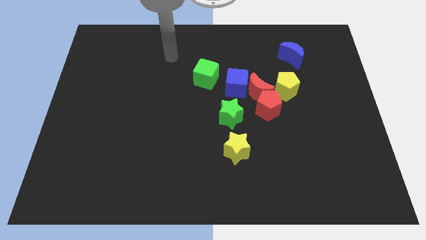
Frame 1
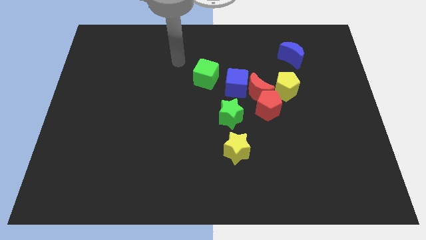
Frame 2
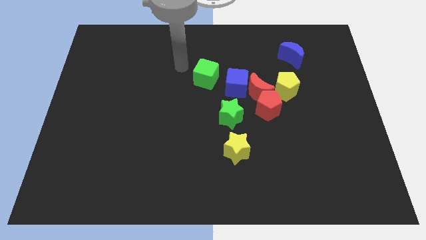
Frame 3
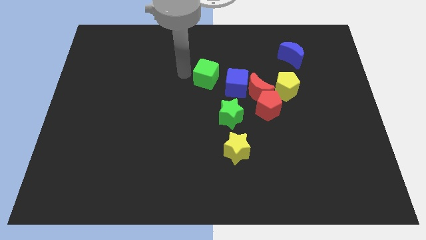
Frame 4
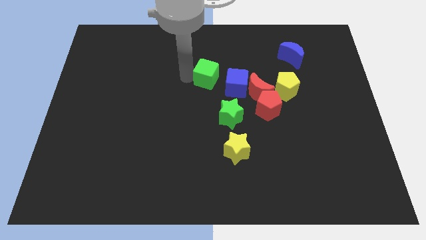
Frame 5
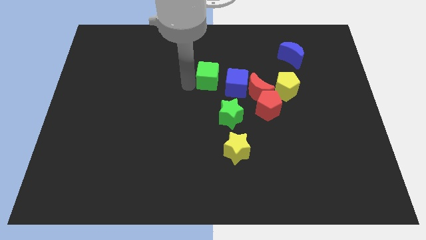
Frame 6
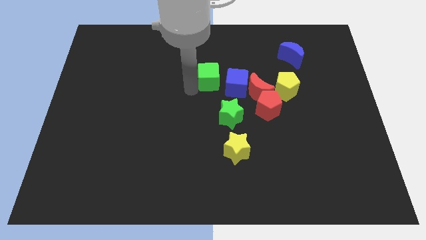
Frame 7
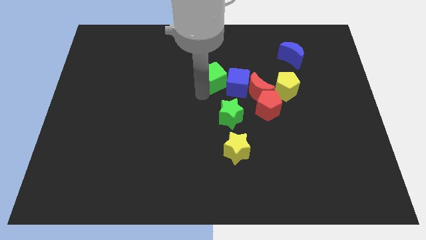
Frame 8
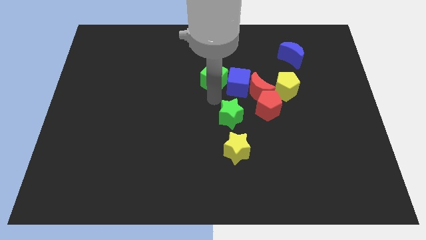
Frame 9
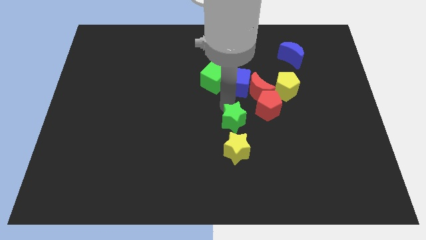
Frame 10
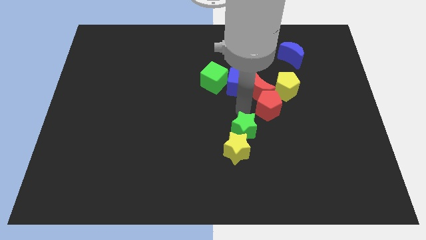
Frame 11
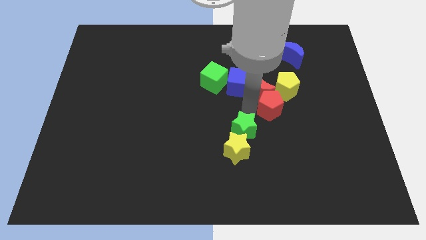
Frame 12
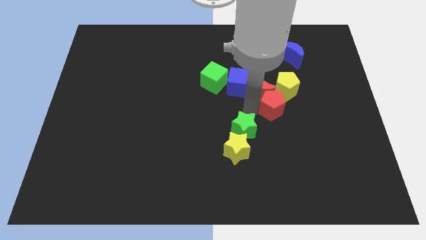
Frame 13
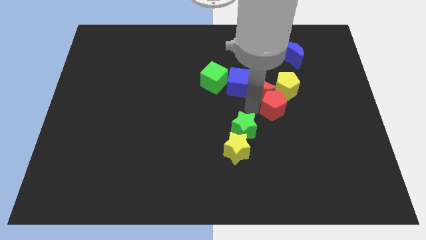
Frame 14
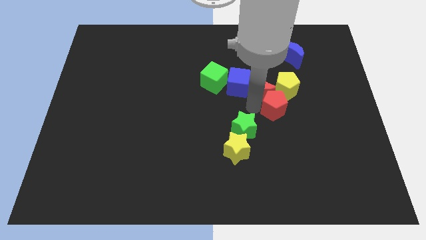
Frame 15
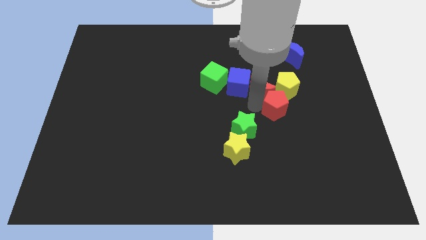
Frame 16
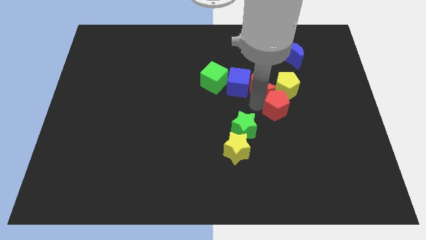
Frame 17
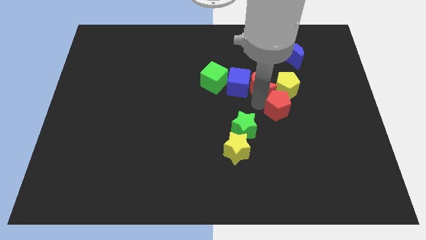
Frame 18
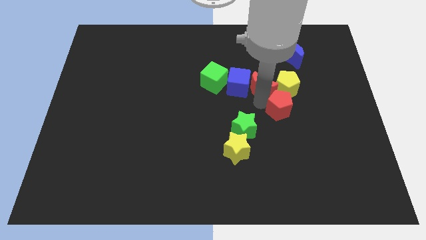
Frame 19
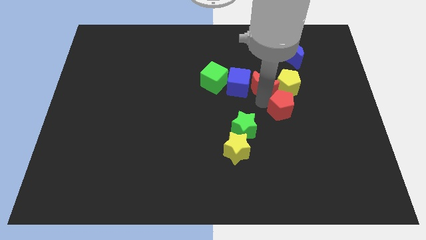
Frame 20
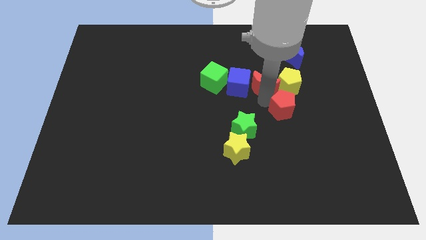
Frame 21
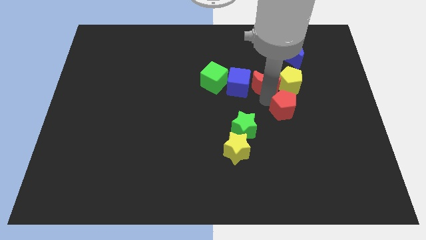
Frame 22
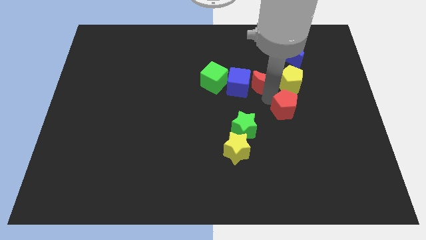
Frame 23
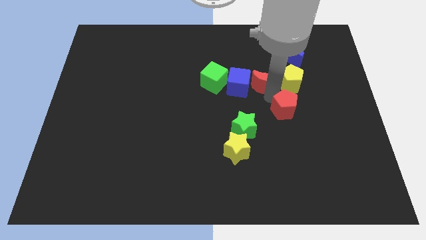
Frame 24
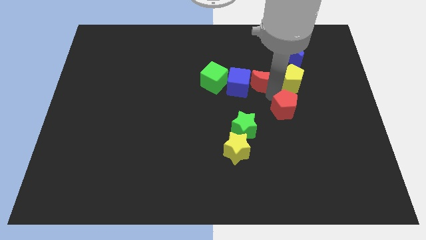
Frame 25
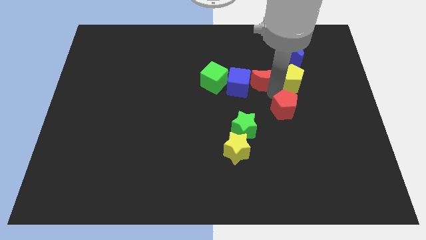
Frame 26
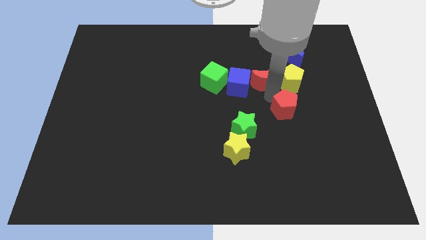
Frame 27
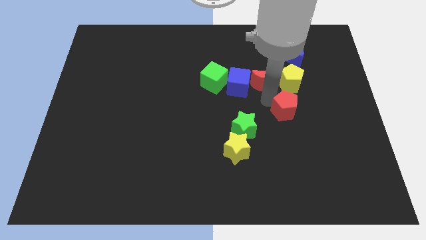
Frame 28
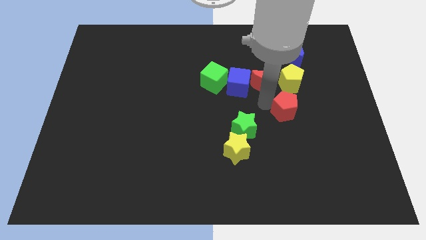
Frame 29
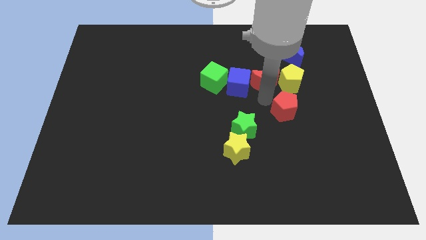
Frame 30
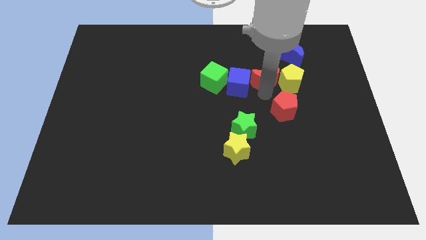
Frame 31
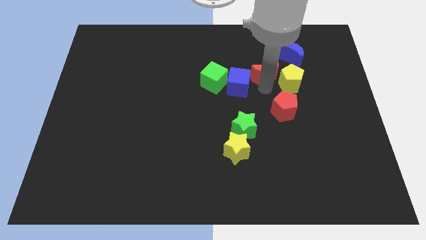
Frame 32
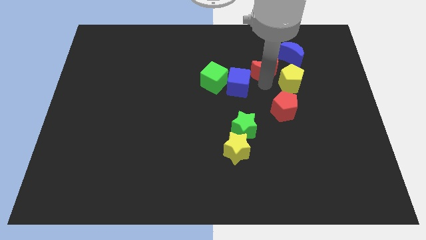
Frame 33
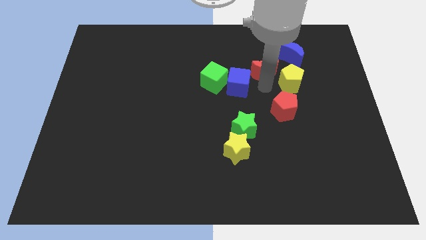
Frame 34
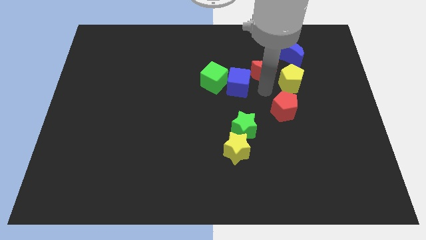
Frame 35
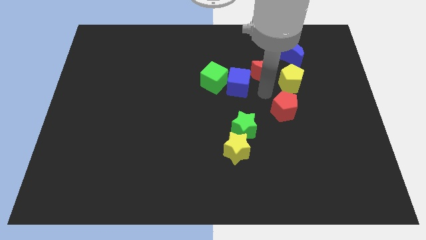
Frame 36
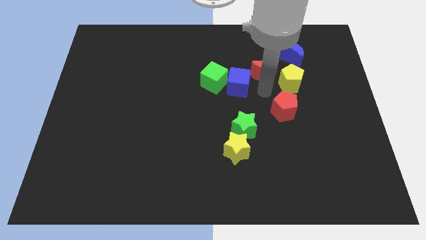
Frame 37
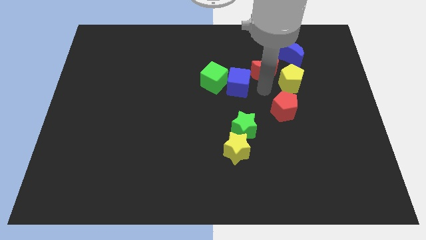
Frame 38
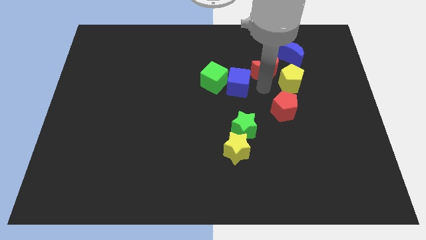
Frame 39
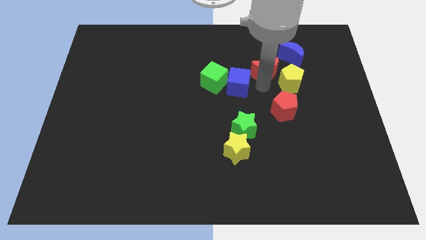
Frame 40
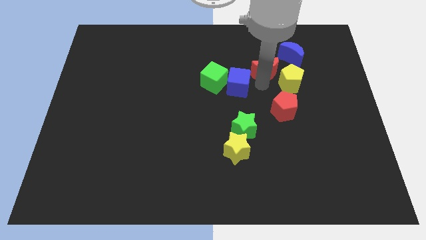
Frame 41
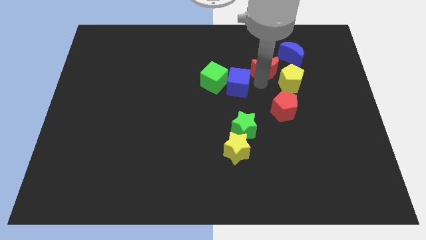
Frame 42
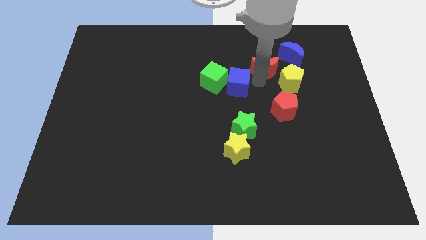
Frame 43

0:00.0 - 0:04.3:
pull the red moon apart from the group of blocks

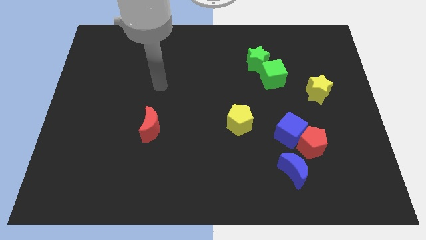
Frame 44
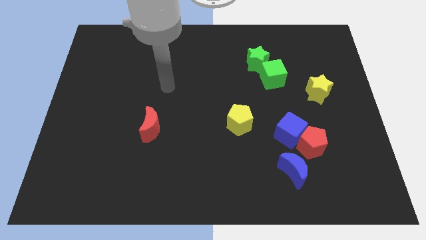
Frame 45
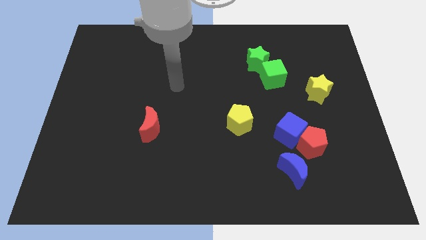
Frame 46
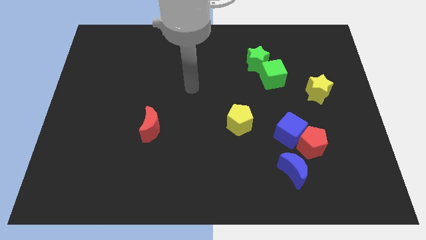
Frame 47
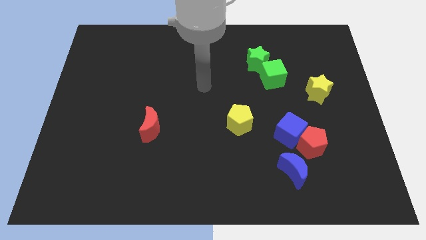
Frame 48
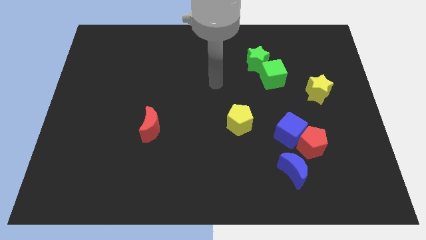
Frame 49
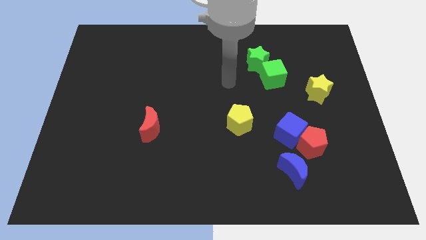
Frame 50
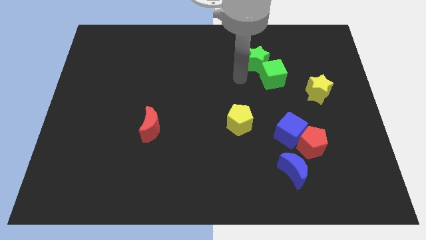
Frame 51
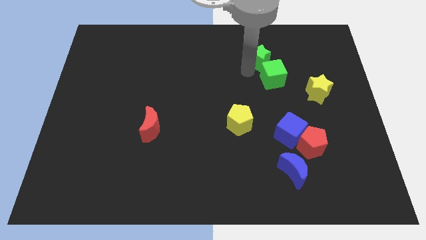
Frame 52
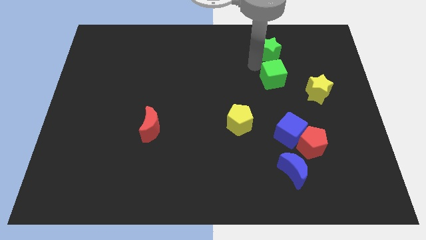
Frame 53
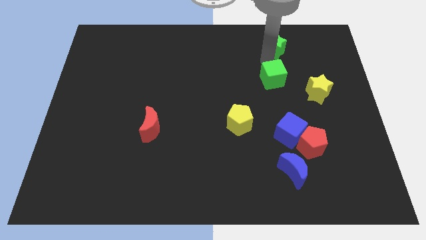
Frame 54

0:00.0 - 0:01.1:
move the green cube away from the green star

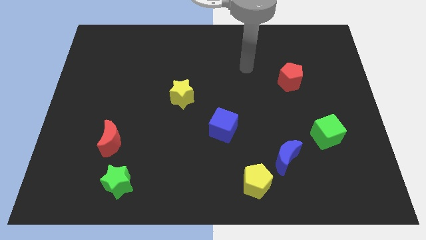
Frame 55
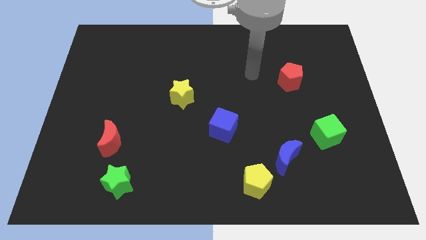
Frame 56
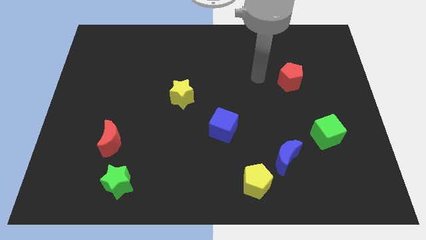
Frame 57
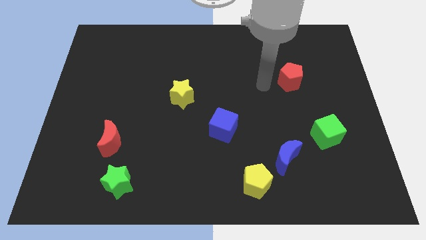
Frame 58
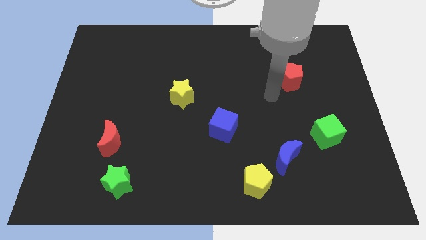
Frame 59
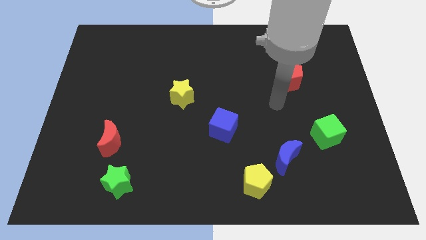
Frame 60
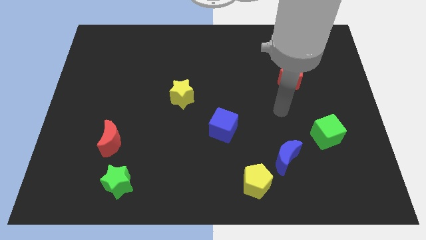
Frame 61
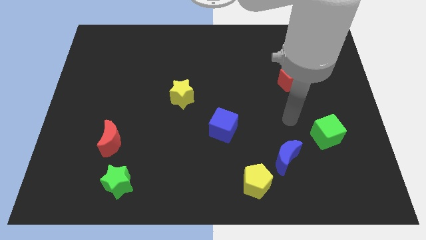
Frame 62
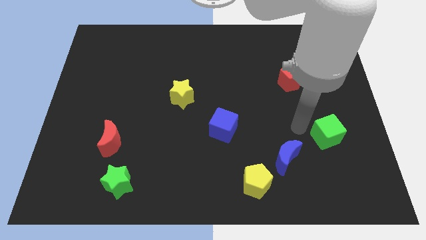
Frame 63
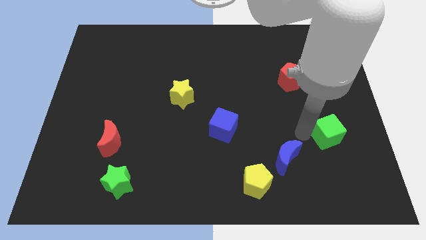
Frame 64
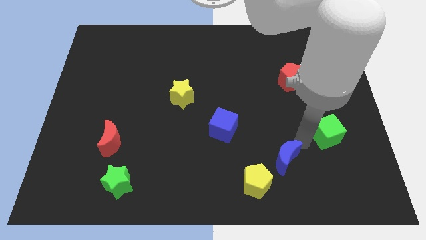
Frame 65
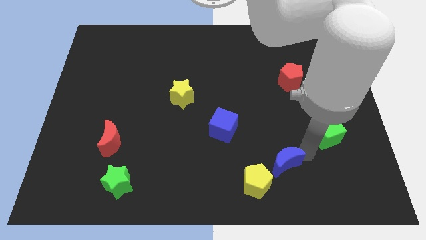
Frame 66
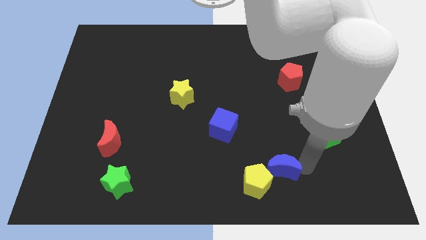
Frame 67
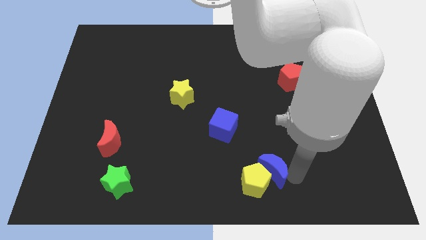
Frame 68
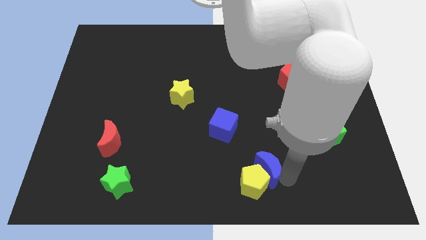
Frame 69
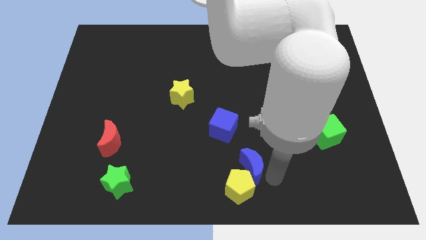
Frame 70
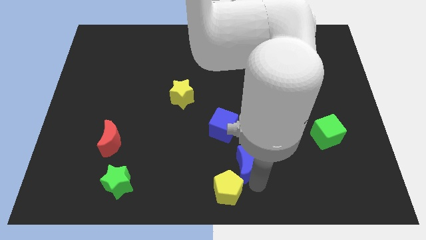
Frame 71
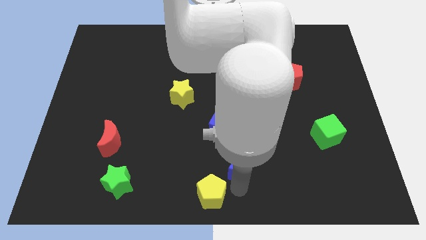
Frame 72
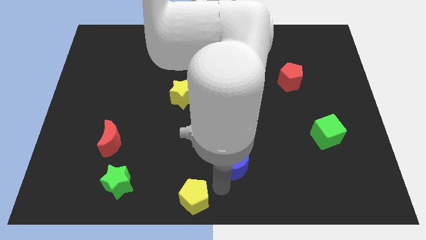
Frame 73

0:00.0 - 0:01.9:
move the blue moon away from the yellow pentagon

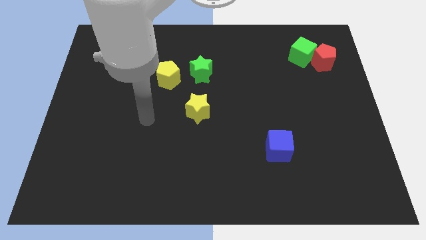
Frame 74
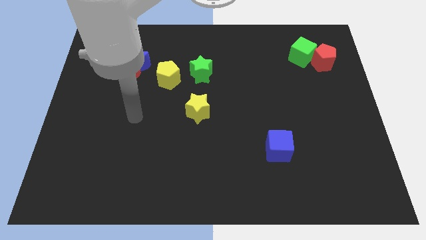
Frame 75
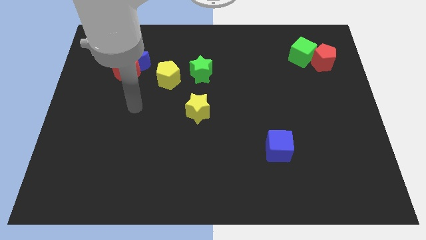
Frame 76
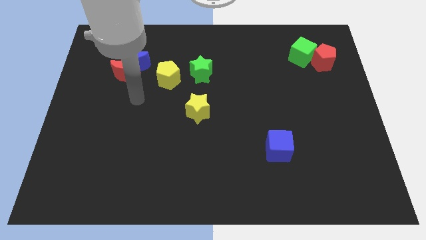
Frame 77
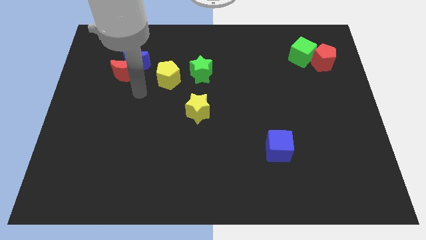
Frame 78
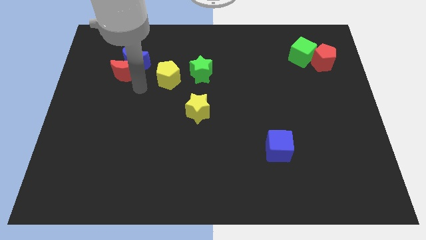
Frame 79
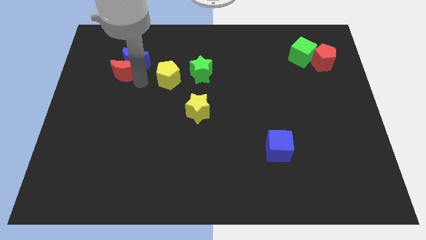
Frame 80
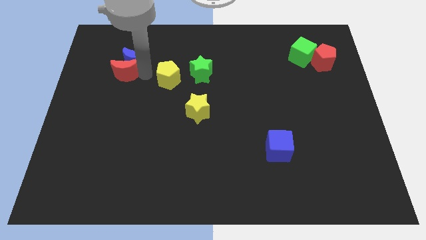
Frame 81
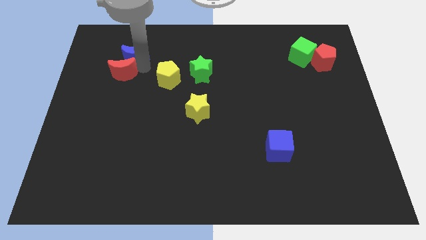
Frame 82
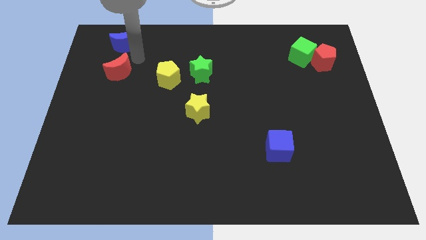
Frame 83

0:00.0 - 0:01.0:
pull the red moon apart from the blue moon

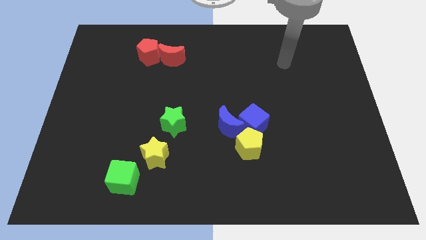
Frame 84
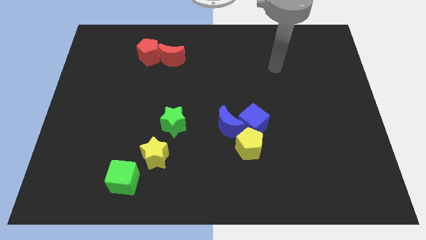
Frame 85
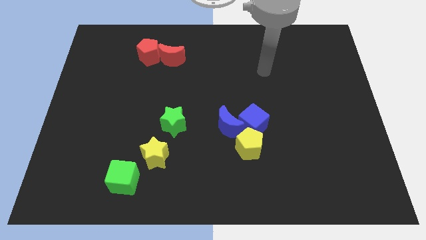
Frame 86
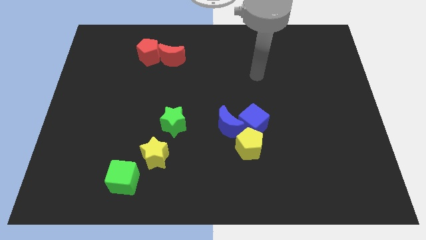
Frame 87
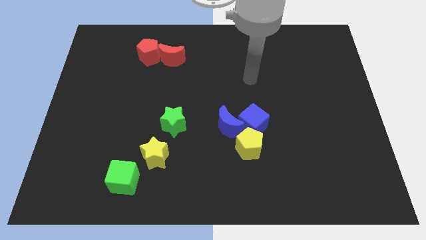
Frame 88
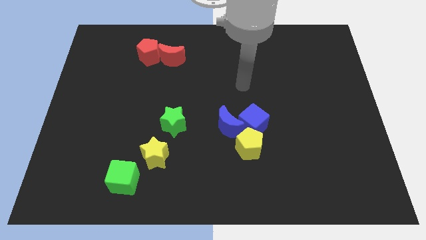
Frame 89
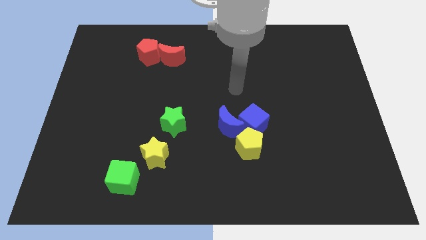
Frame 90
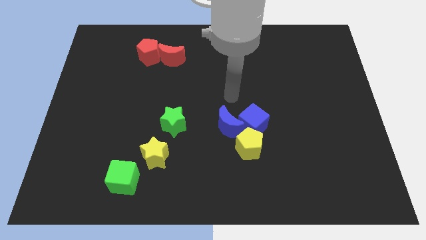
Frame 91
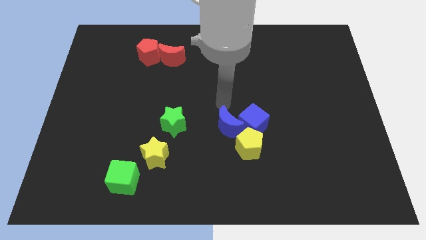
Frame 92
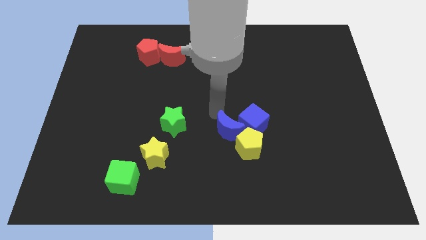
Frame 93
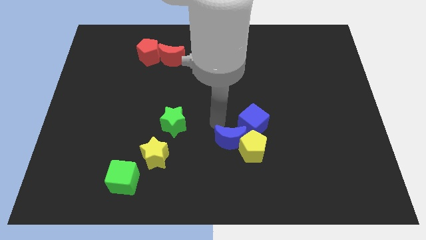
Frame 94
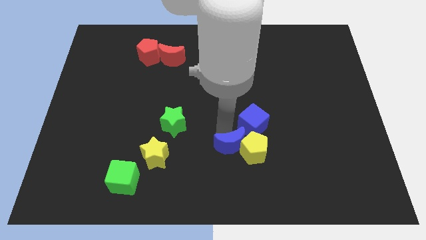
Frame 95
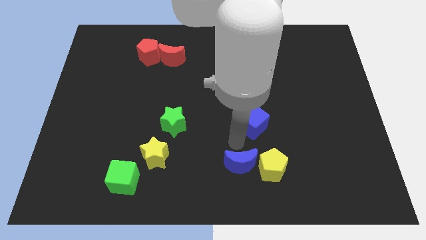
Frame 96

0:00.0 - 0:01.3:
separate the blue cube from the blue moon and yellow pentagon
